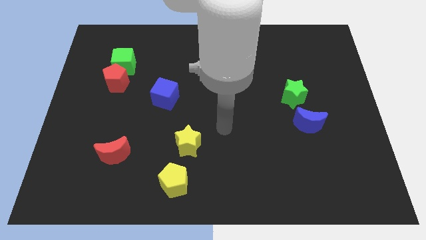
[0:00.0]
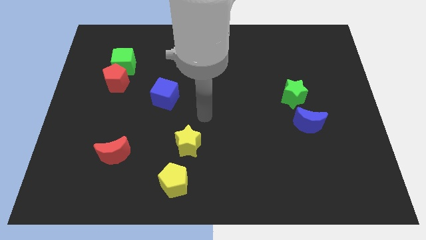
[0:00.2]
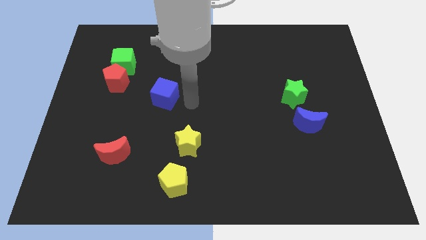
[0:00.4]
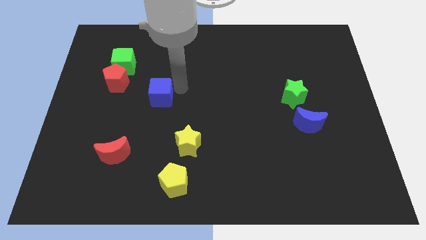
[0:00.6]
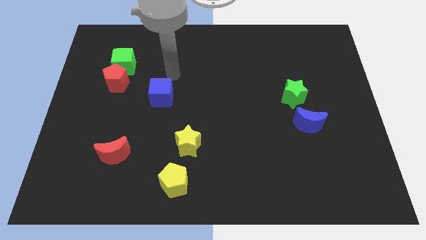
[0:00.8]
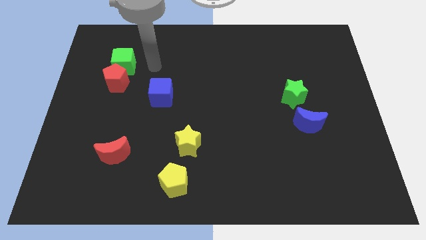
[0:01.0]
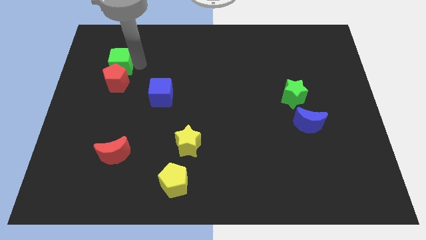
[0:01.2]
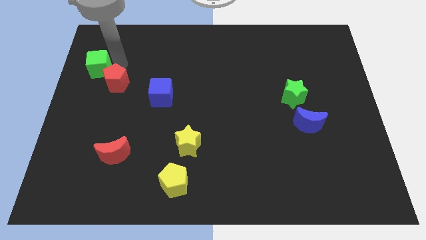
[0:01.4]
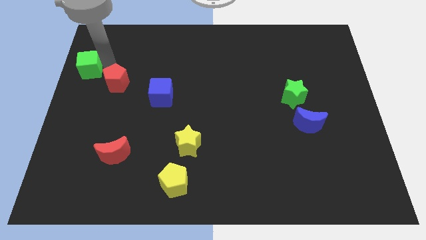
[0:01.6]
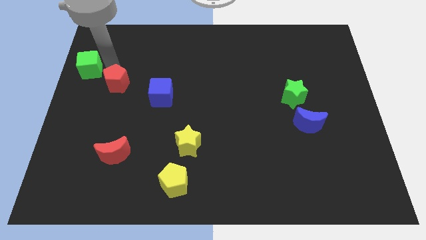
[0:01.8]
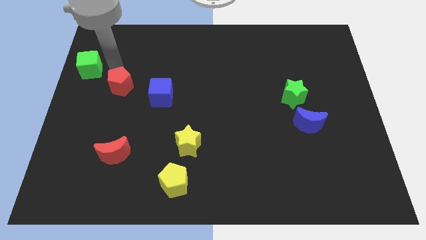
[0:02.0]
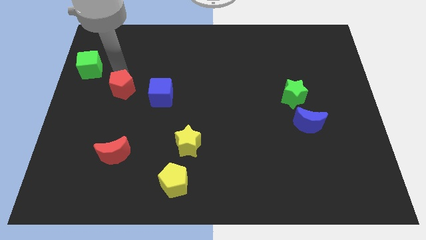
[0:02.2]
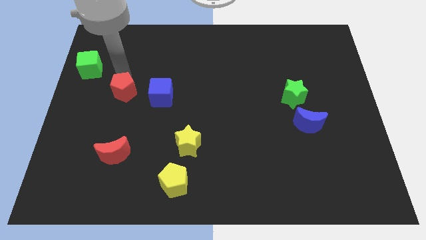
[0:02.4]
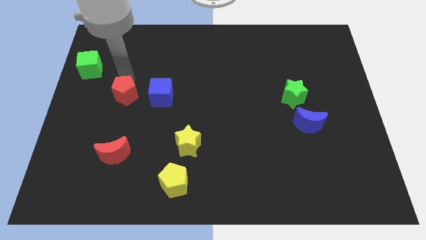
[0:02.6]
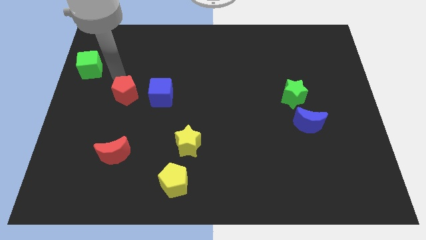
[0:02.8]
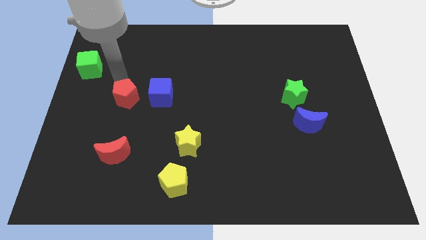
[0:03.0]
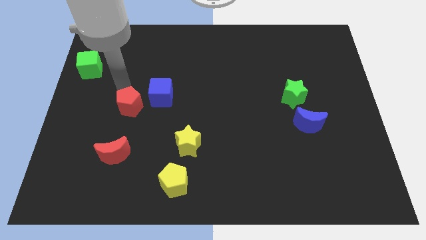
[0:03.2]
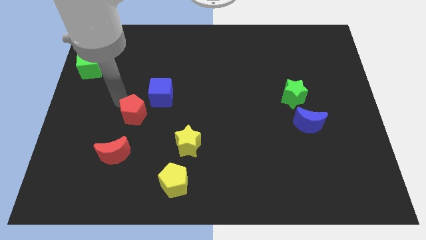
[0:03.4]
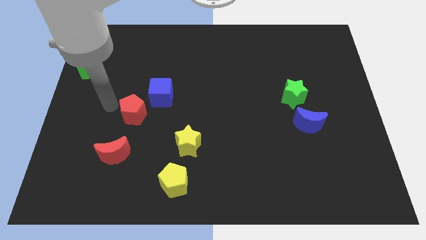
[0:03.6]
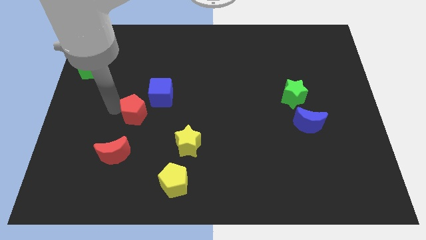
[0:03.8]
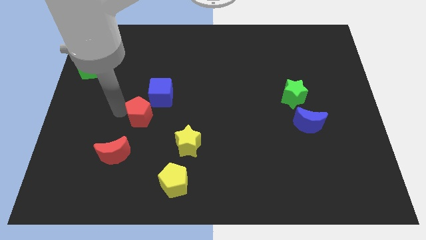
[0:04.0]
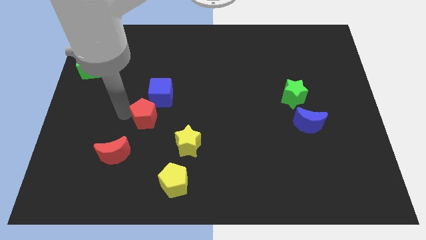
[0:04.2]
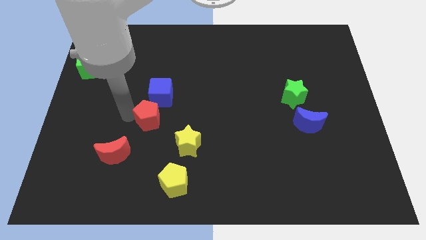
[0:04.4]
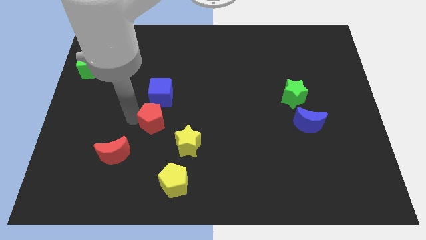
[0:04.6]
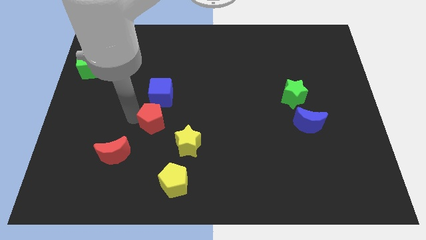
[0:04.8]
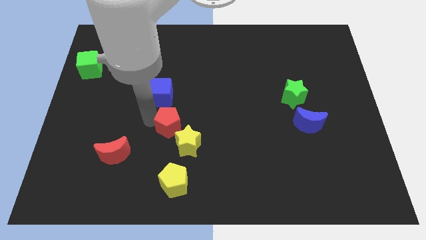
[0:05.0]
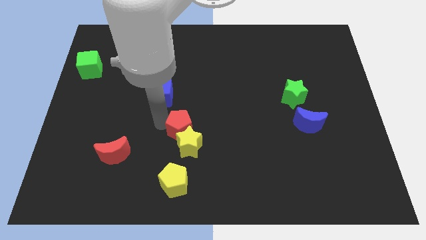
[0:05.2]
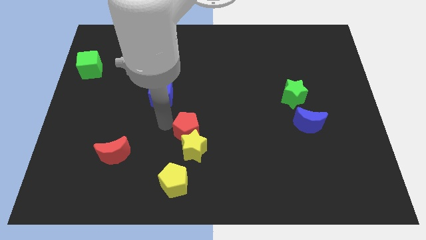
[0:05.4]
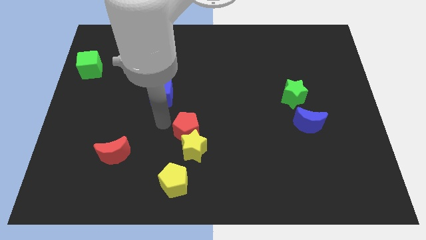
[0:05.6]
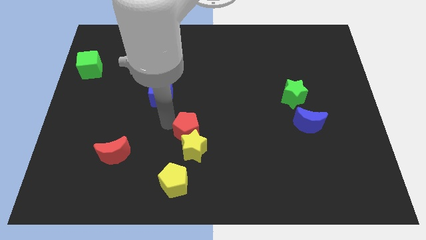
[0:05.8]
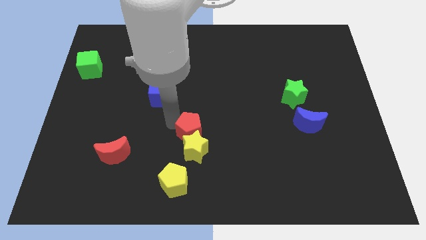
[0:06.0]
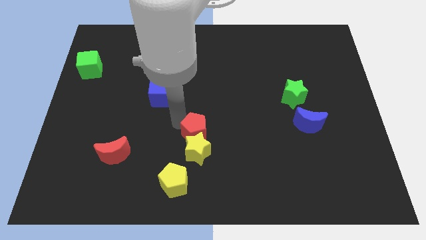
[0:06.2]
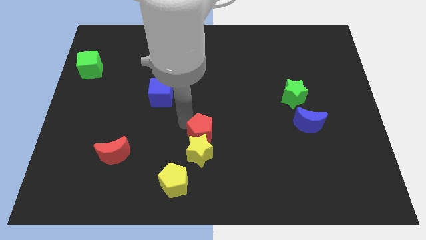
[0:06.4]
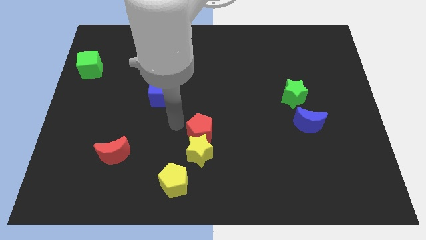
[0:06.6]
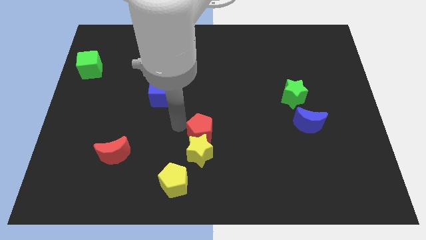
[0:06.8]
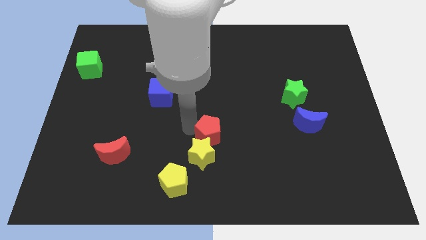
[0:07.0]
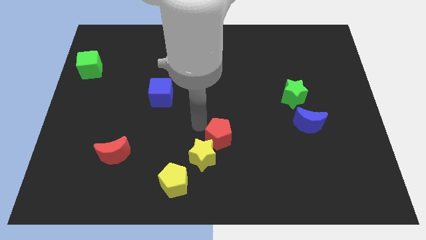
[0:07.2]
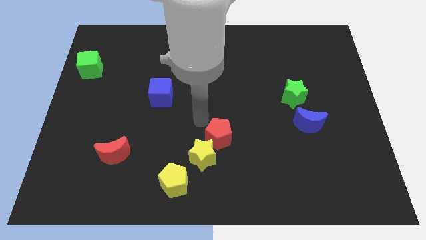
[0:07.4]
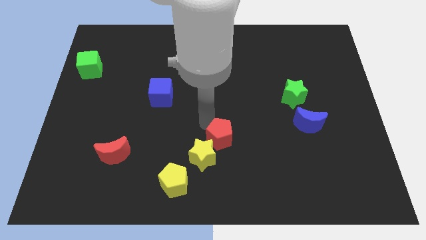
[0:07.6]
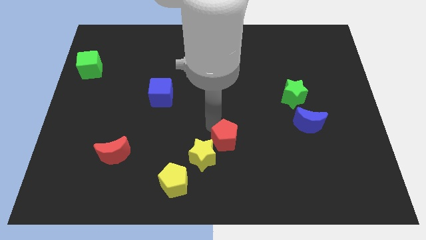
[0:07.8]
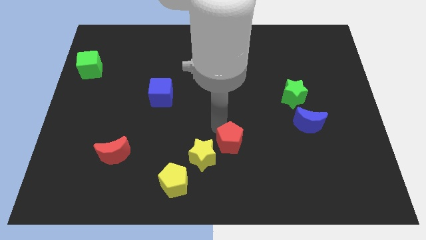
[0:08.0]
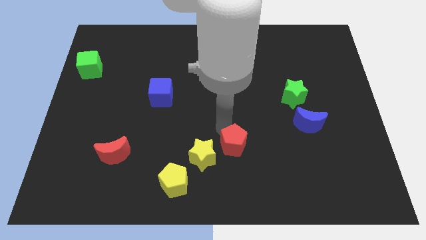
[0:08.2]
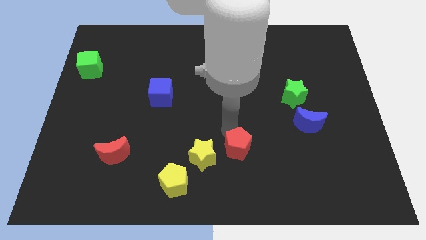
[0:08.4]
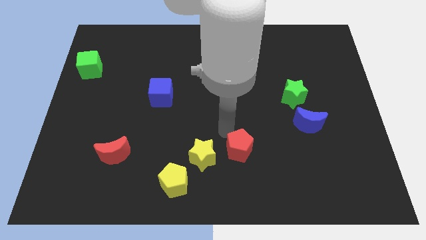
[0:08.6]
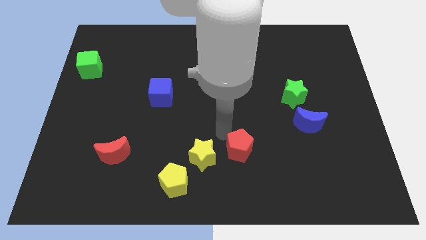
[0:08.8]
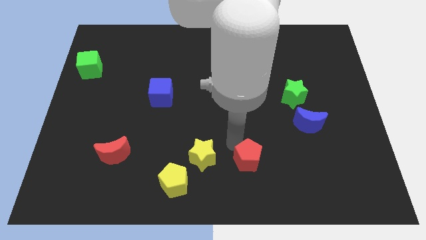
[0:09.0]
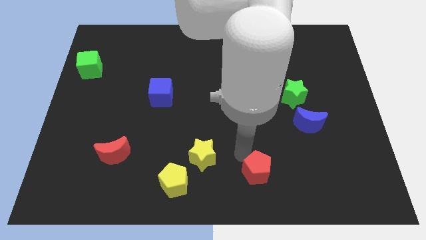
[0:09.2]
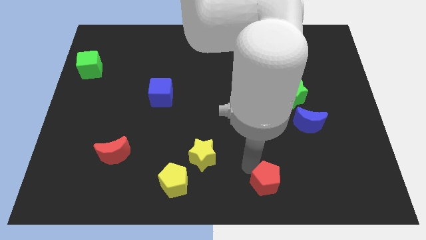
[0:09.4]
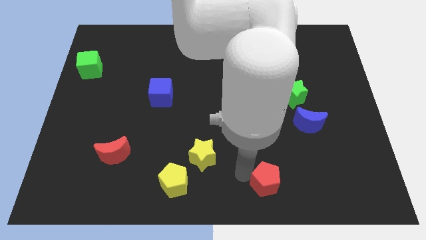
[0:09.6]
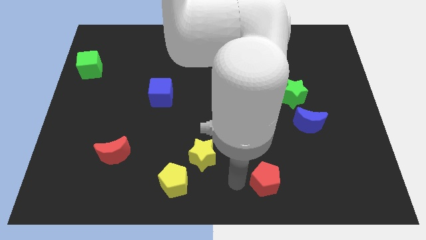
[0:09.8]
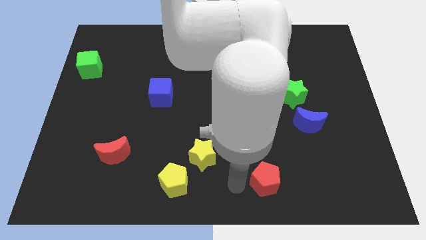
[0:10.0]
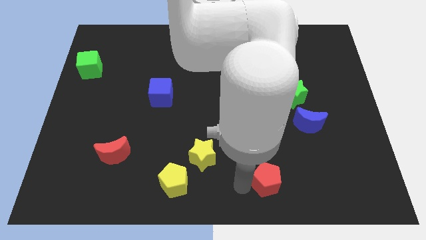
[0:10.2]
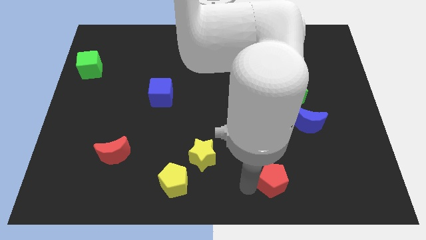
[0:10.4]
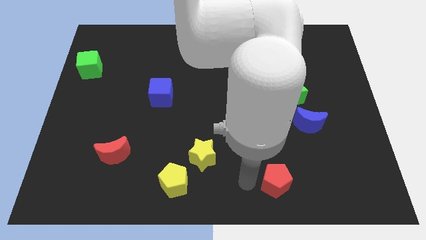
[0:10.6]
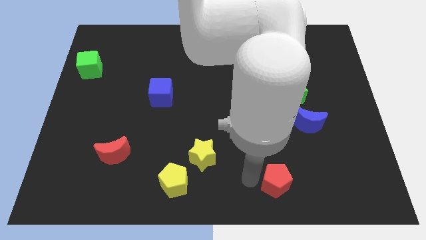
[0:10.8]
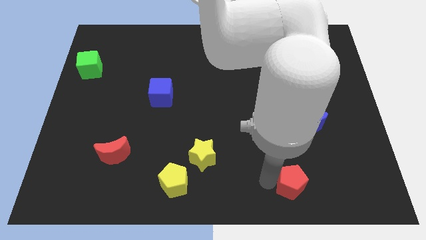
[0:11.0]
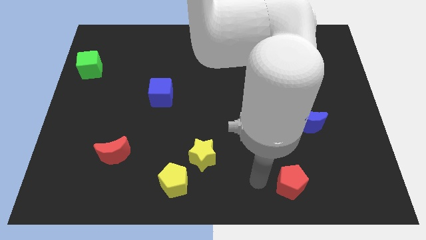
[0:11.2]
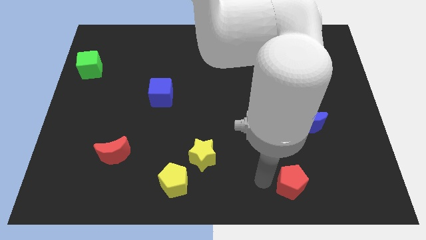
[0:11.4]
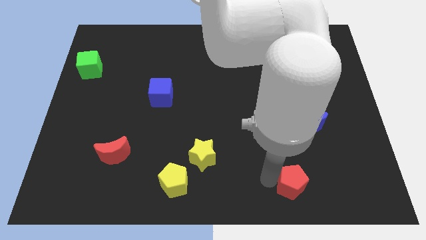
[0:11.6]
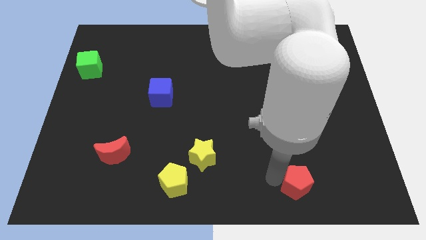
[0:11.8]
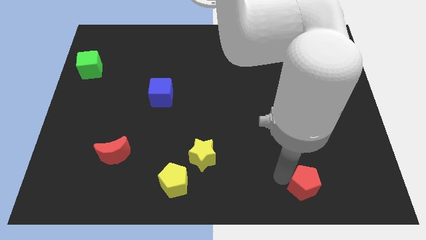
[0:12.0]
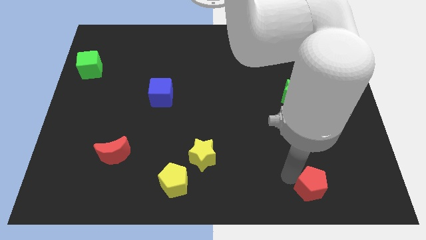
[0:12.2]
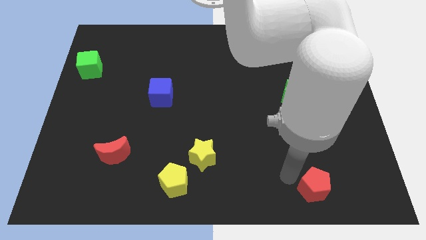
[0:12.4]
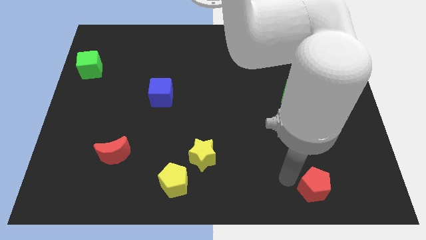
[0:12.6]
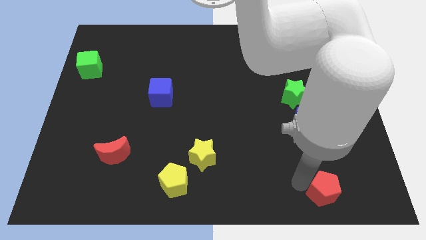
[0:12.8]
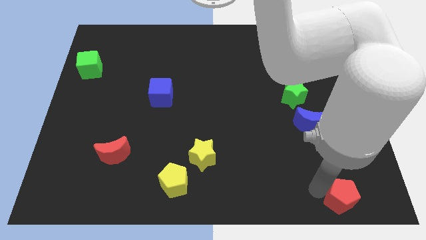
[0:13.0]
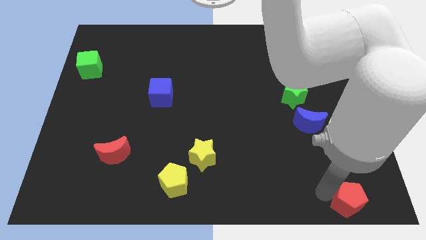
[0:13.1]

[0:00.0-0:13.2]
move the red pentagon to the bottom right of the board
